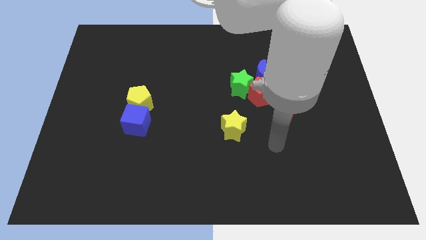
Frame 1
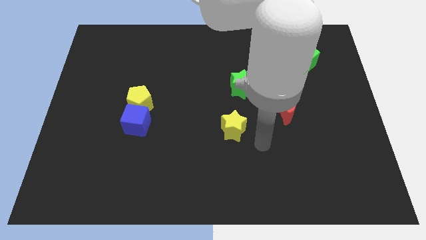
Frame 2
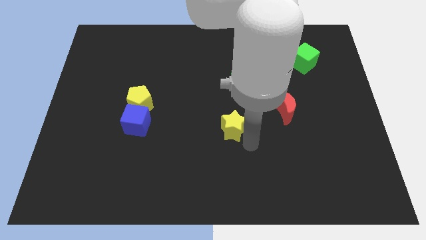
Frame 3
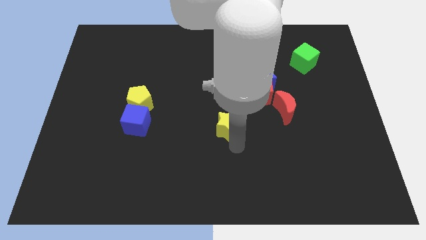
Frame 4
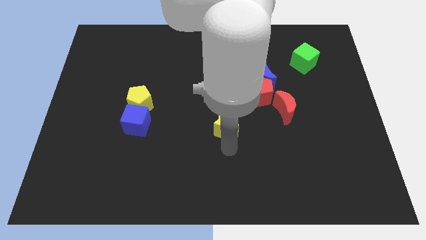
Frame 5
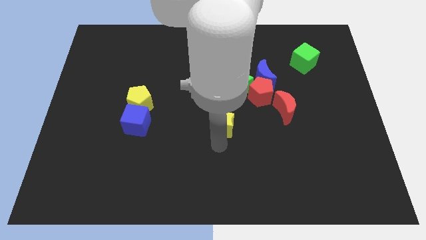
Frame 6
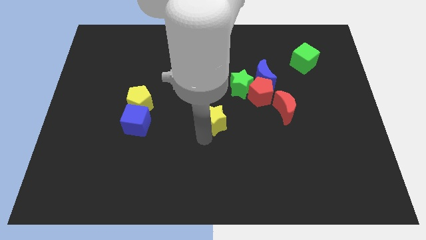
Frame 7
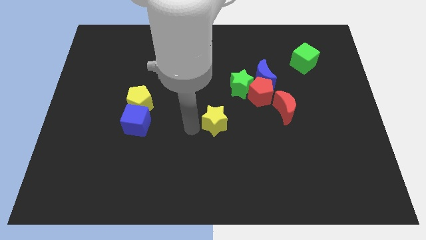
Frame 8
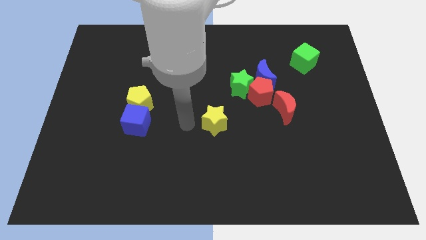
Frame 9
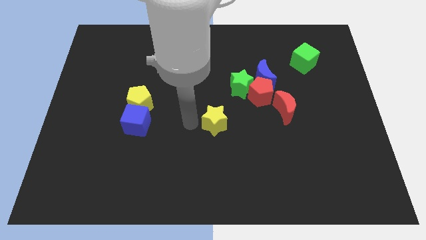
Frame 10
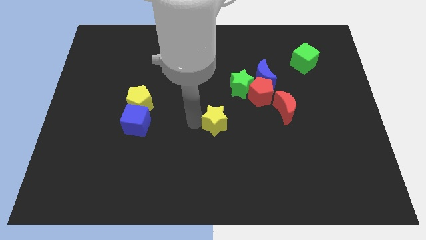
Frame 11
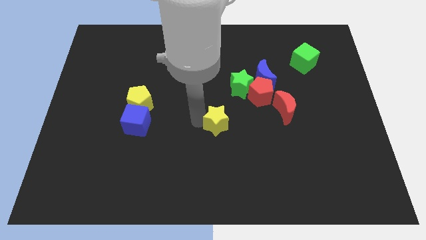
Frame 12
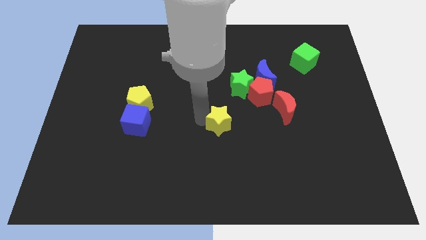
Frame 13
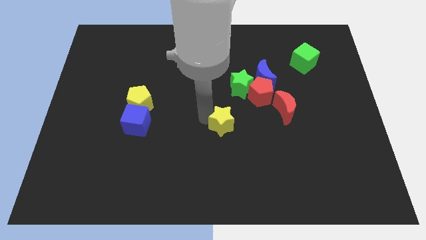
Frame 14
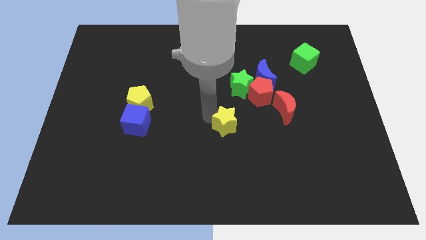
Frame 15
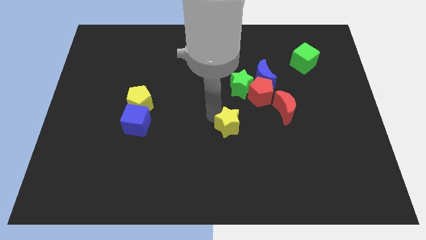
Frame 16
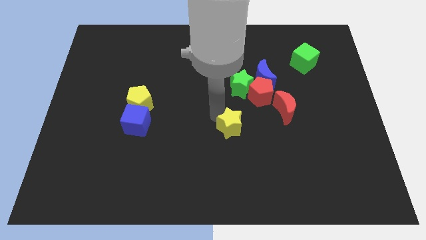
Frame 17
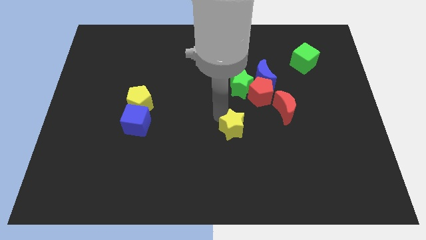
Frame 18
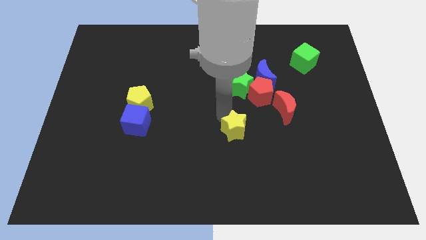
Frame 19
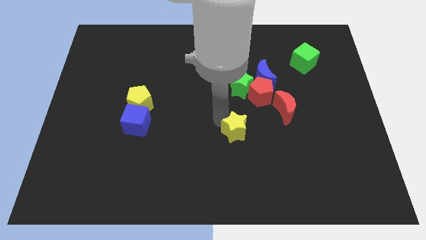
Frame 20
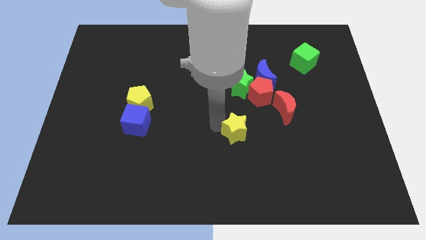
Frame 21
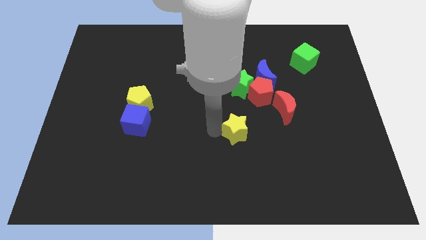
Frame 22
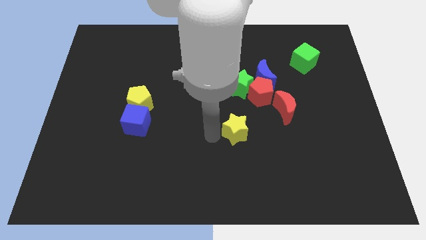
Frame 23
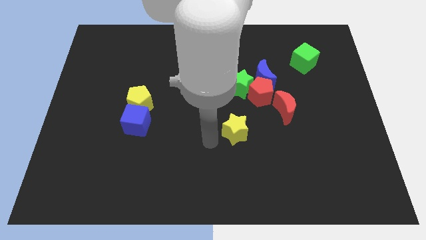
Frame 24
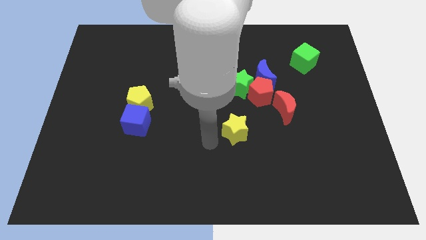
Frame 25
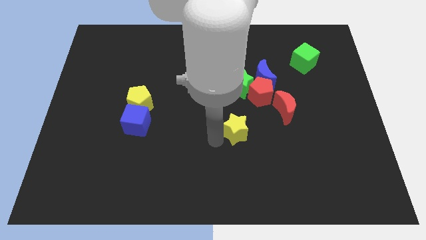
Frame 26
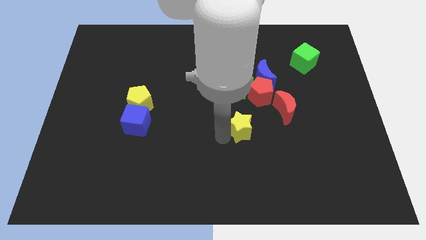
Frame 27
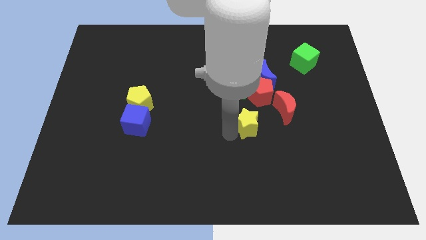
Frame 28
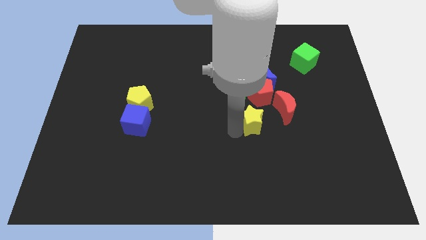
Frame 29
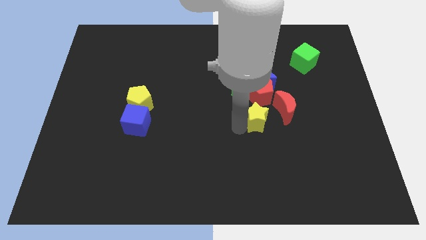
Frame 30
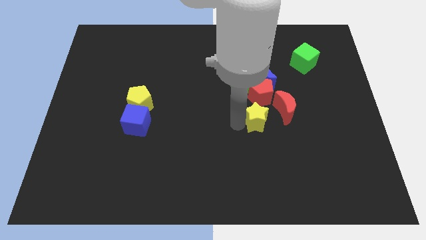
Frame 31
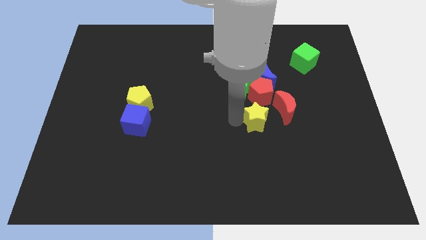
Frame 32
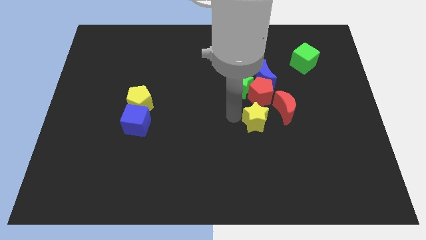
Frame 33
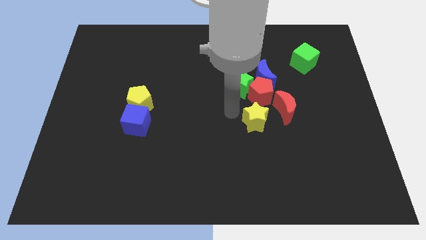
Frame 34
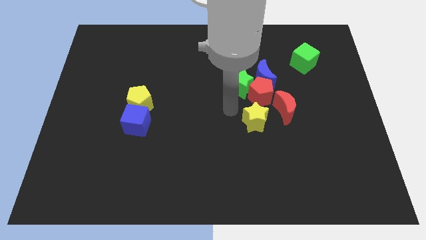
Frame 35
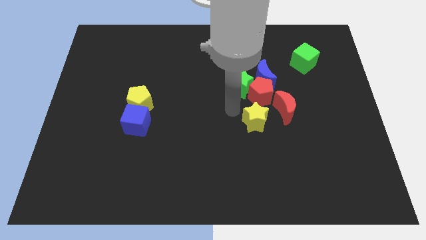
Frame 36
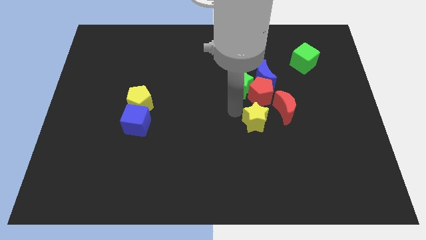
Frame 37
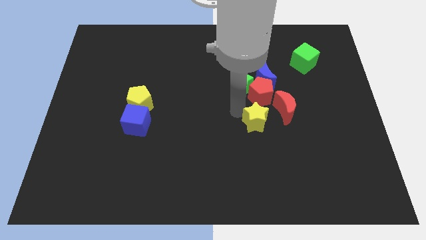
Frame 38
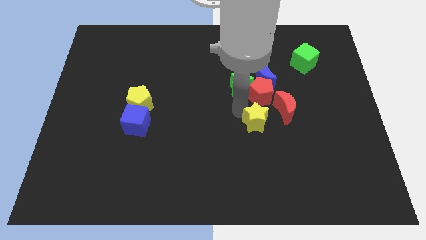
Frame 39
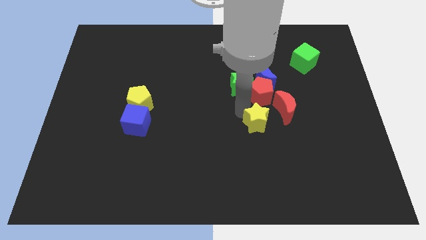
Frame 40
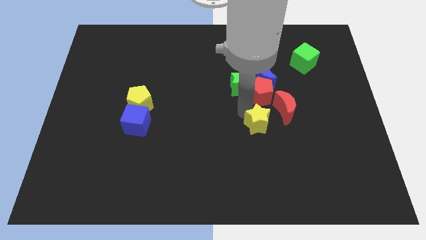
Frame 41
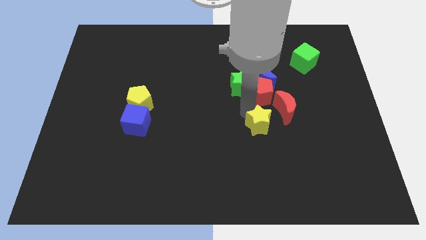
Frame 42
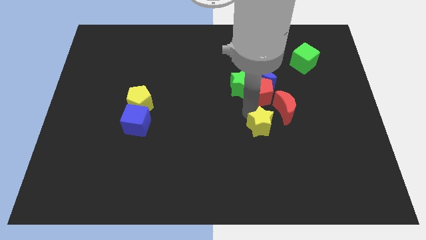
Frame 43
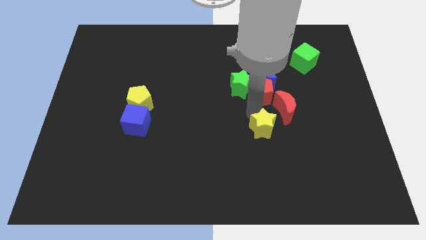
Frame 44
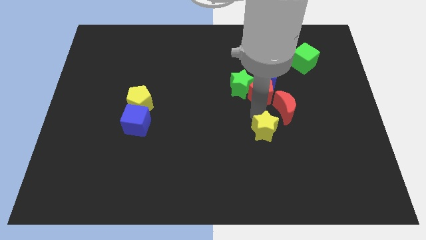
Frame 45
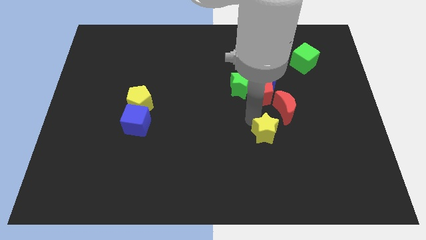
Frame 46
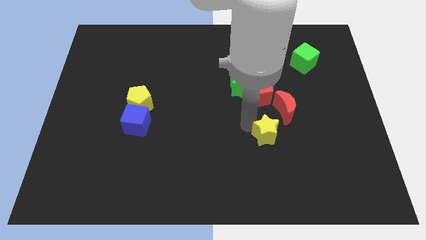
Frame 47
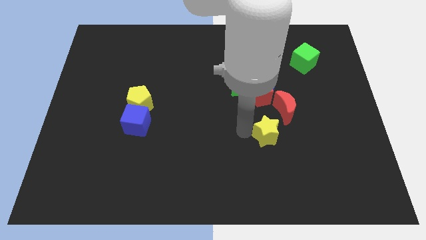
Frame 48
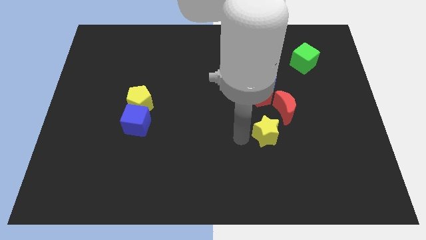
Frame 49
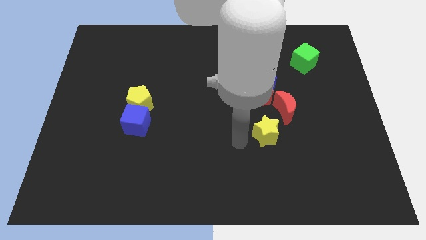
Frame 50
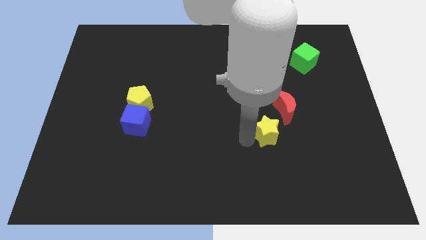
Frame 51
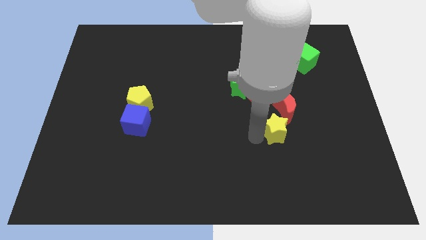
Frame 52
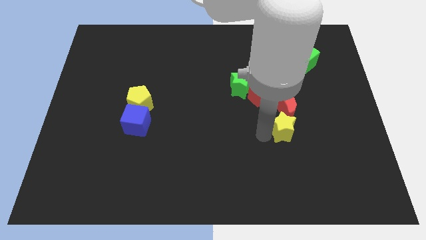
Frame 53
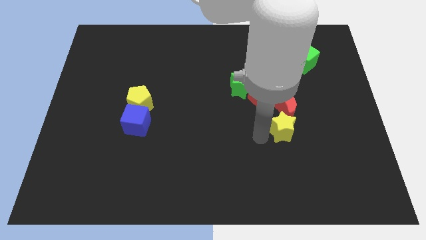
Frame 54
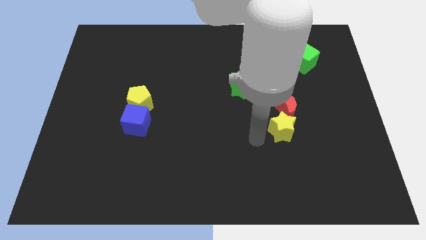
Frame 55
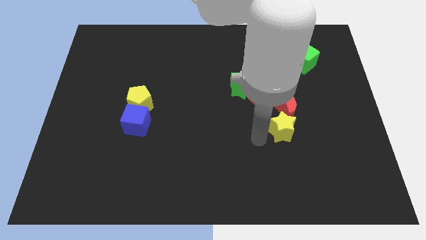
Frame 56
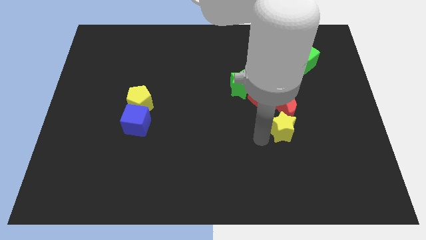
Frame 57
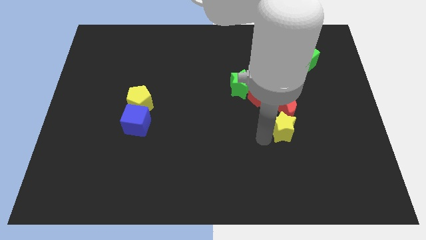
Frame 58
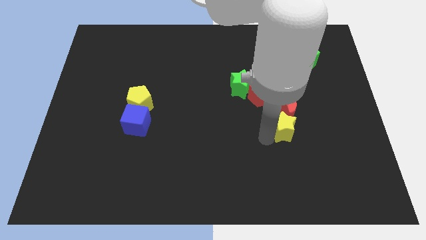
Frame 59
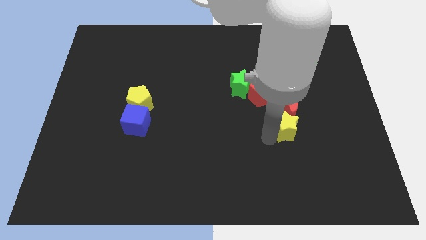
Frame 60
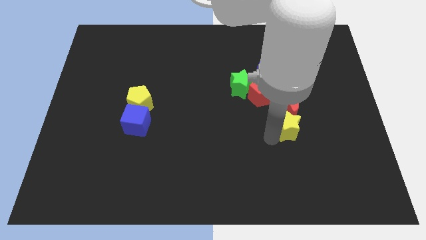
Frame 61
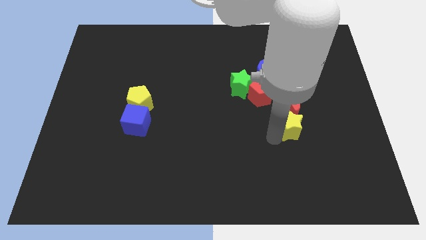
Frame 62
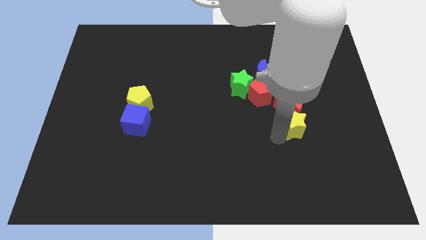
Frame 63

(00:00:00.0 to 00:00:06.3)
slightly push the yellow star up and then to the right

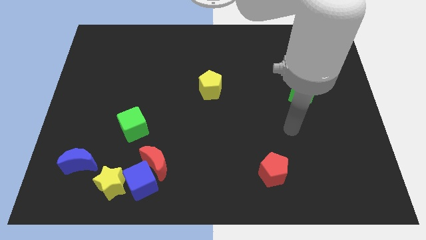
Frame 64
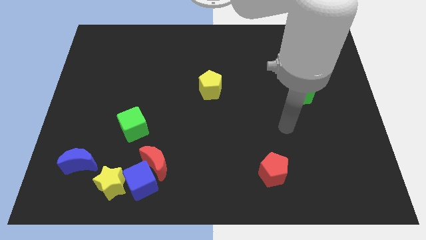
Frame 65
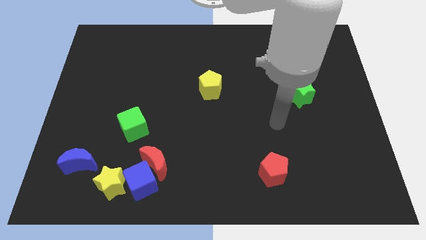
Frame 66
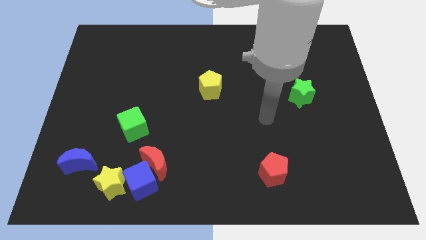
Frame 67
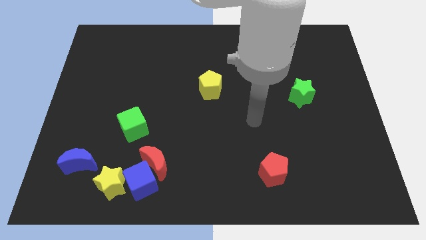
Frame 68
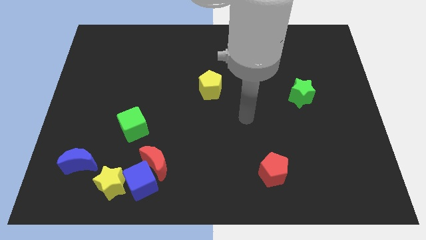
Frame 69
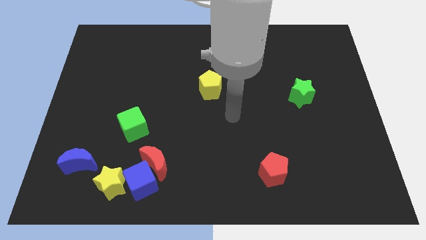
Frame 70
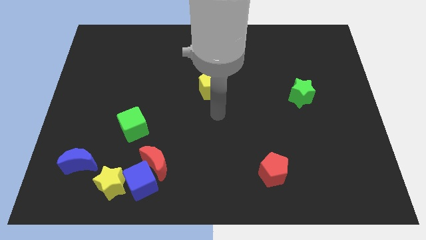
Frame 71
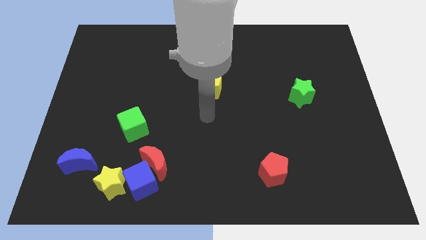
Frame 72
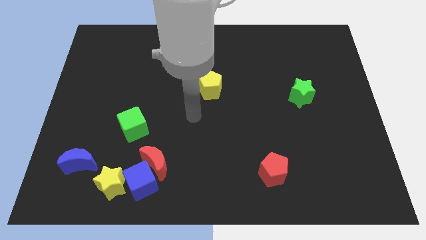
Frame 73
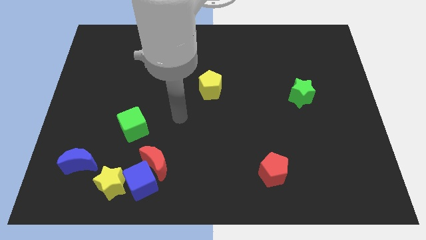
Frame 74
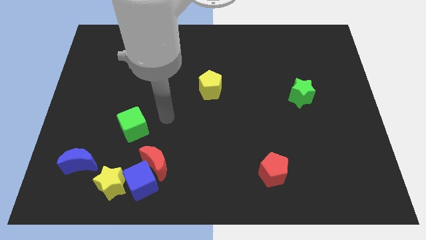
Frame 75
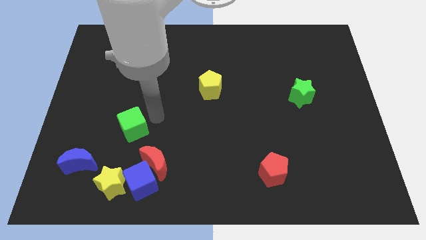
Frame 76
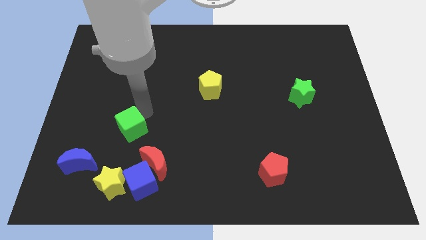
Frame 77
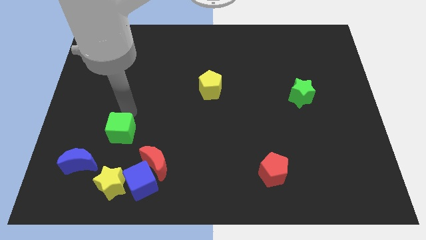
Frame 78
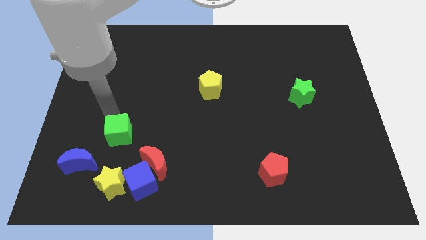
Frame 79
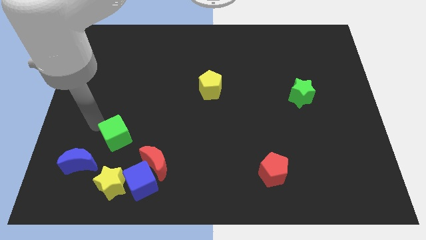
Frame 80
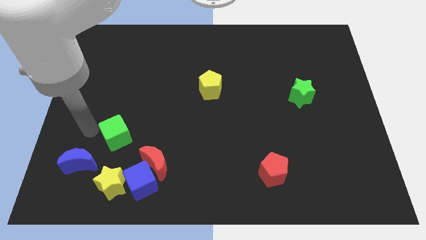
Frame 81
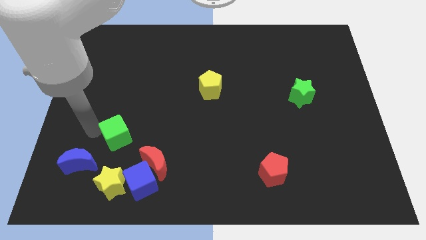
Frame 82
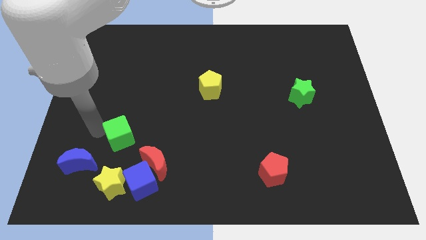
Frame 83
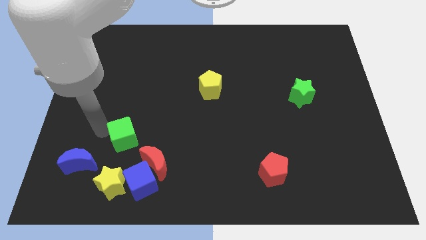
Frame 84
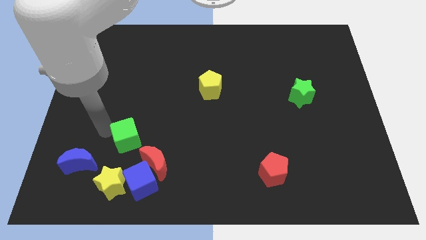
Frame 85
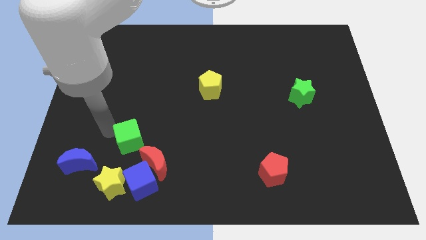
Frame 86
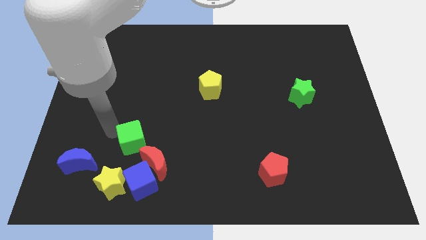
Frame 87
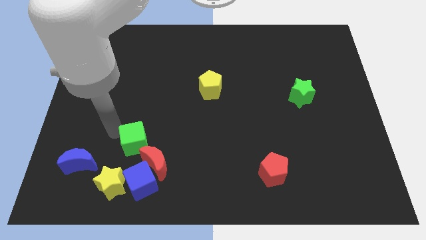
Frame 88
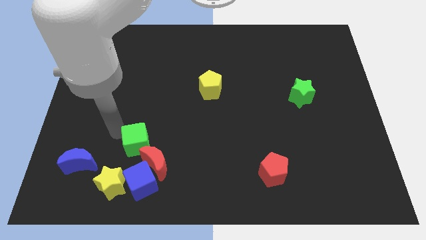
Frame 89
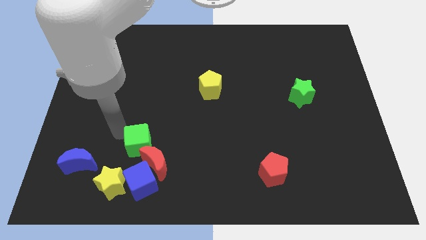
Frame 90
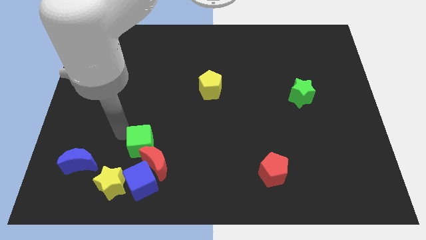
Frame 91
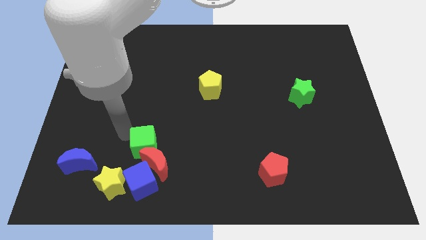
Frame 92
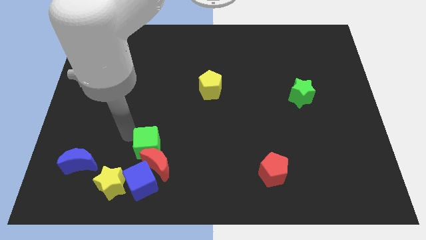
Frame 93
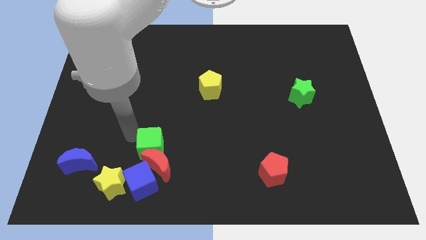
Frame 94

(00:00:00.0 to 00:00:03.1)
push the green cube downwards and right a bit
